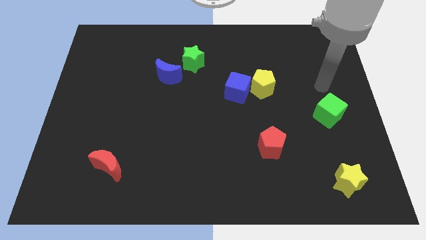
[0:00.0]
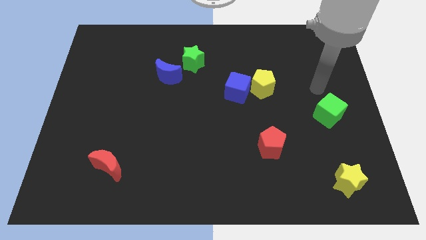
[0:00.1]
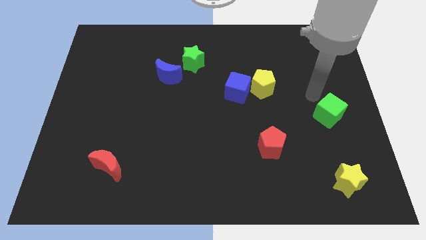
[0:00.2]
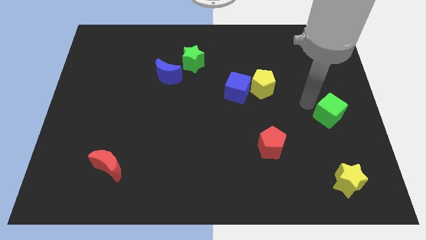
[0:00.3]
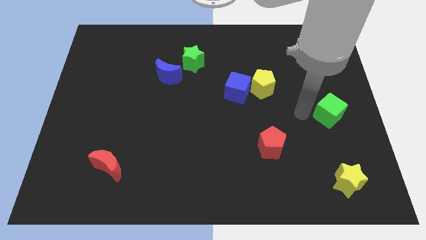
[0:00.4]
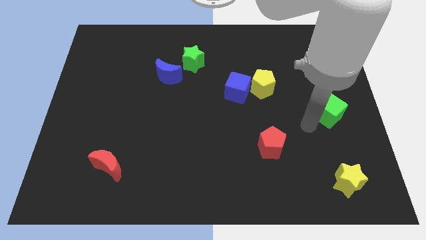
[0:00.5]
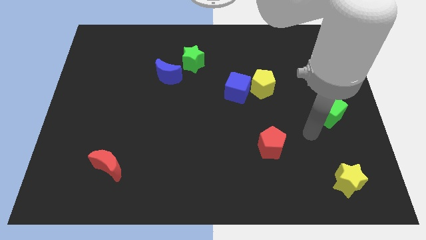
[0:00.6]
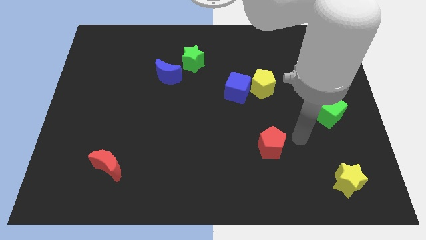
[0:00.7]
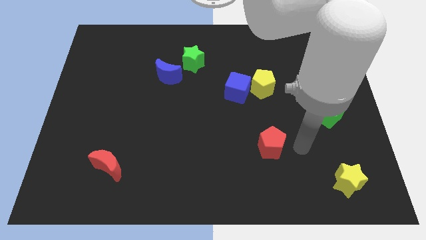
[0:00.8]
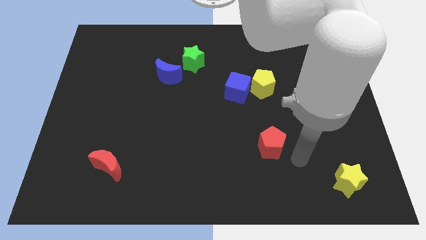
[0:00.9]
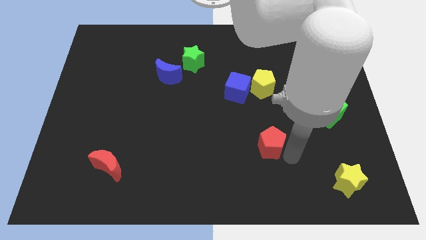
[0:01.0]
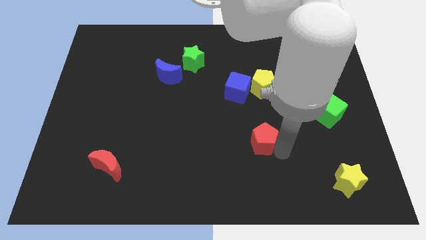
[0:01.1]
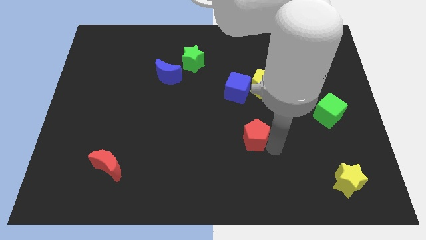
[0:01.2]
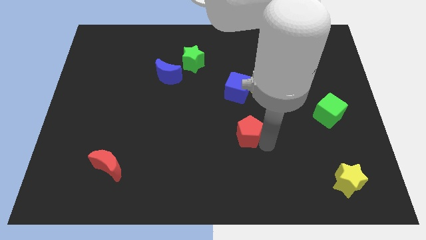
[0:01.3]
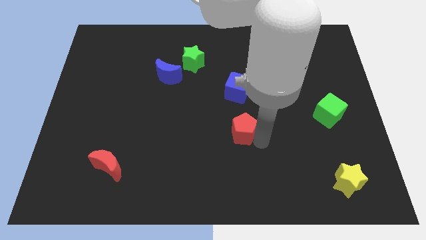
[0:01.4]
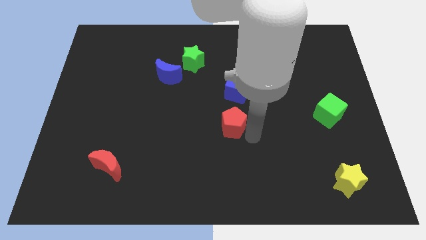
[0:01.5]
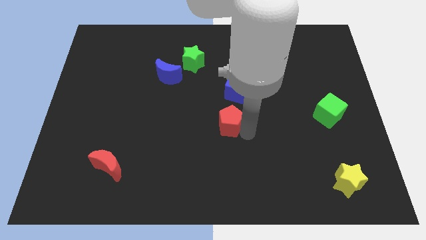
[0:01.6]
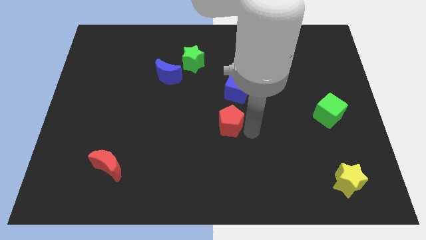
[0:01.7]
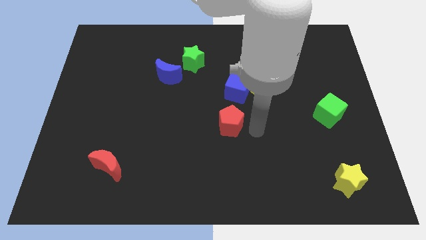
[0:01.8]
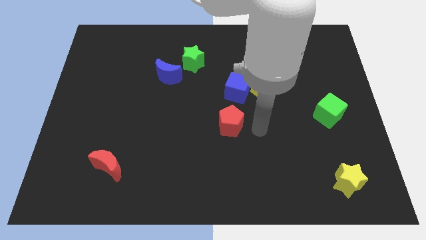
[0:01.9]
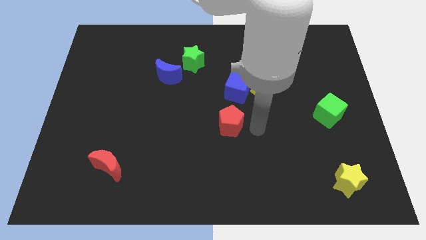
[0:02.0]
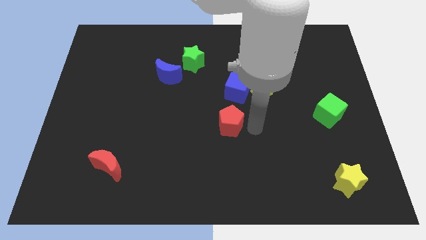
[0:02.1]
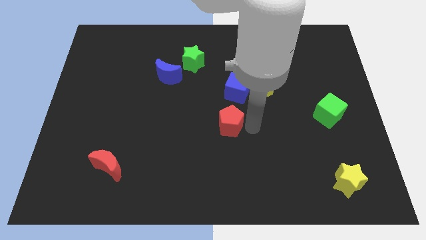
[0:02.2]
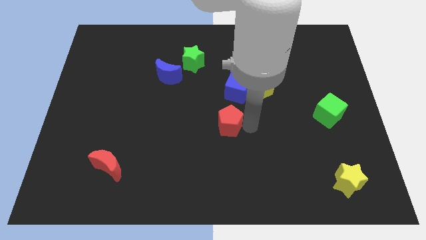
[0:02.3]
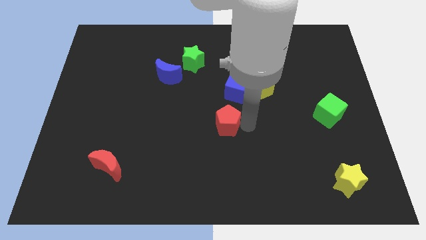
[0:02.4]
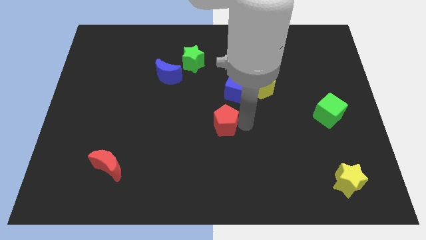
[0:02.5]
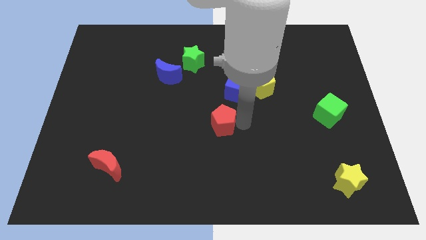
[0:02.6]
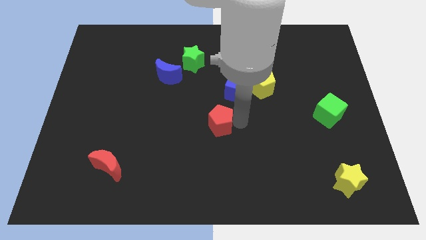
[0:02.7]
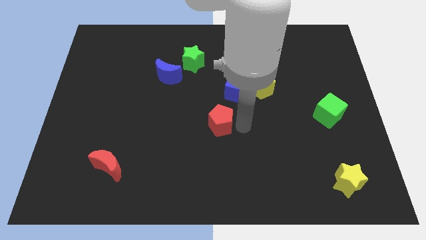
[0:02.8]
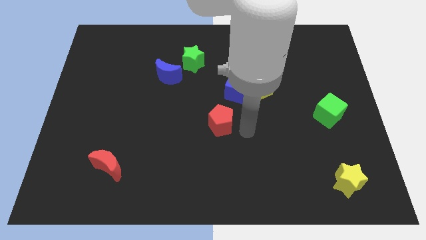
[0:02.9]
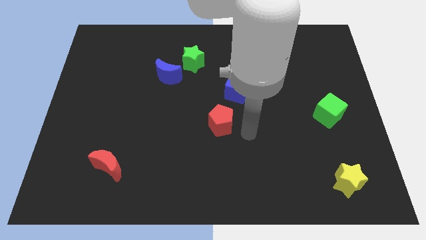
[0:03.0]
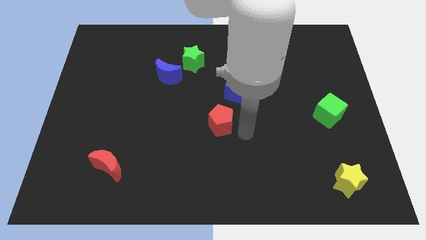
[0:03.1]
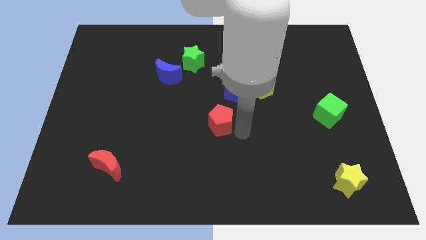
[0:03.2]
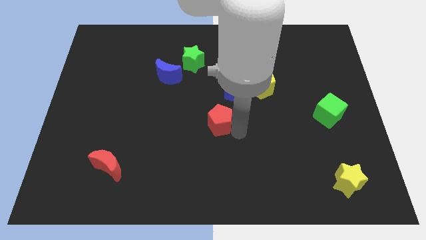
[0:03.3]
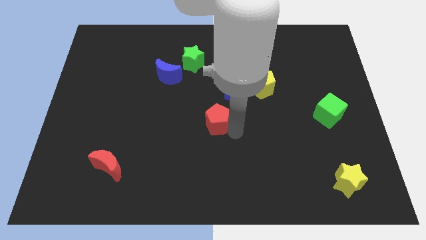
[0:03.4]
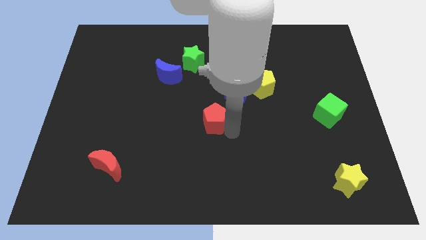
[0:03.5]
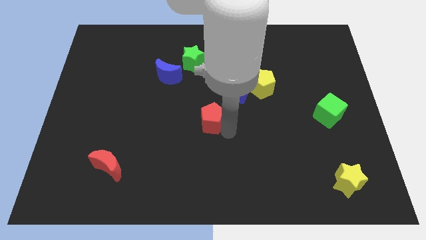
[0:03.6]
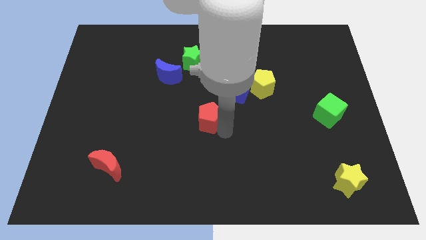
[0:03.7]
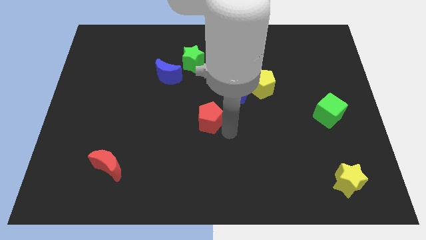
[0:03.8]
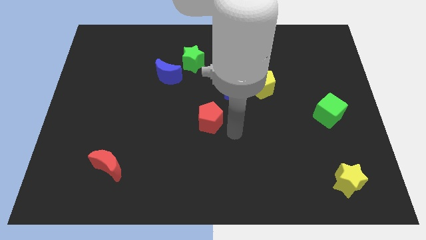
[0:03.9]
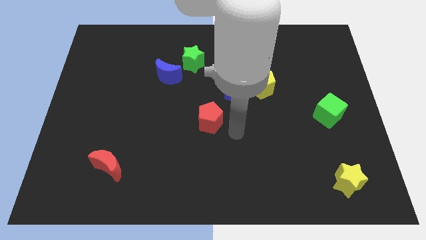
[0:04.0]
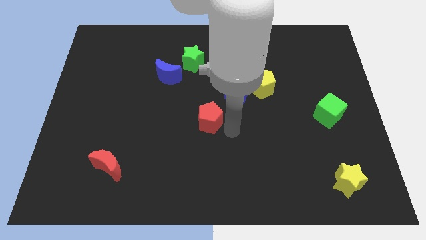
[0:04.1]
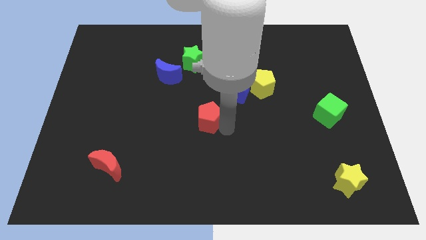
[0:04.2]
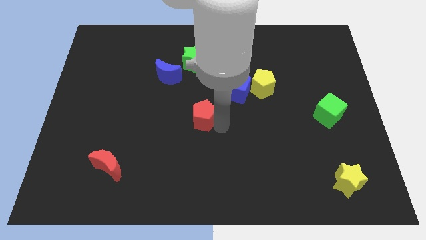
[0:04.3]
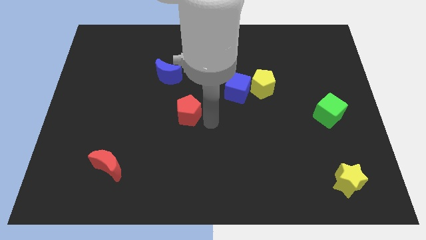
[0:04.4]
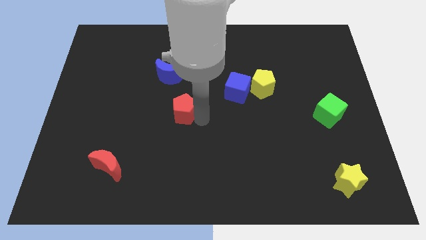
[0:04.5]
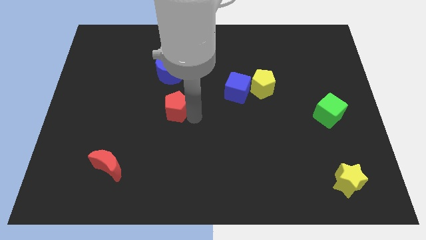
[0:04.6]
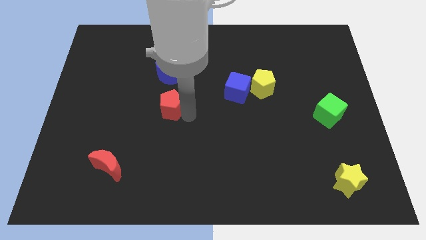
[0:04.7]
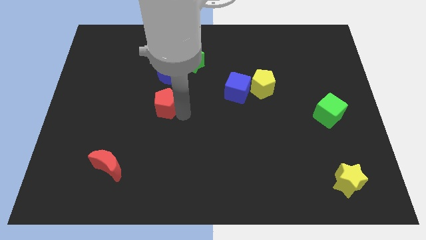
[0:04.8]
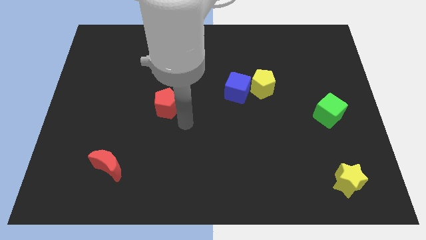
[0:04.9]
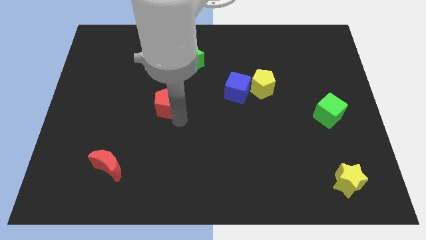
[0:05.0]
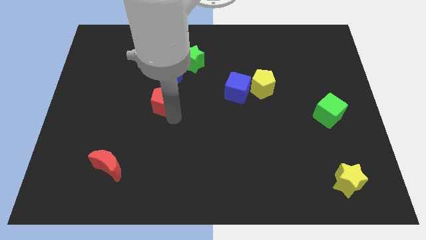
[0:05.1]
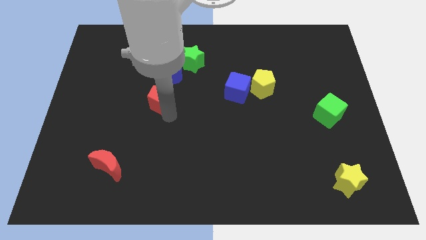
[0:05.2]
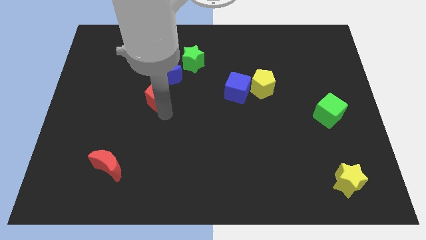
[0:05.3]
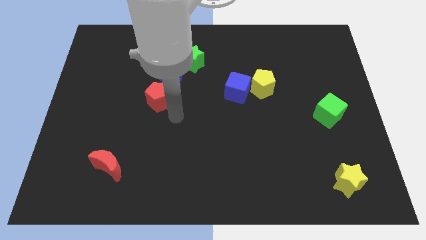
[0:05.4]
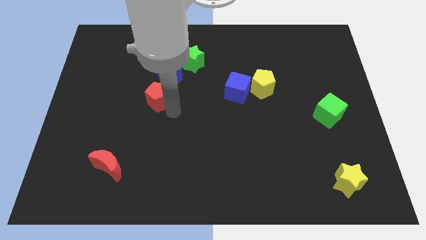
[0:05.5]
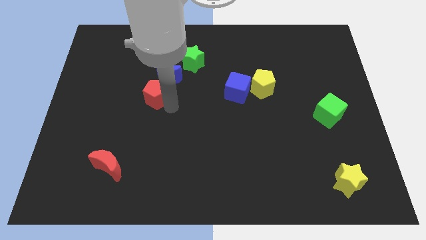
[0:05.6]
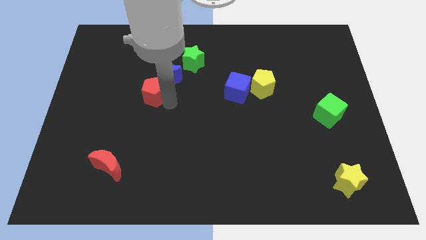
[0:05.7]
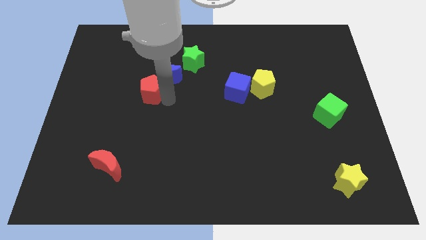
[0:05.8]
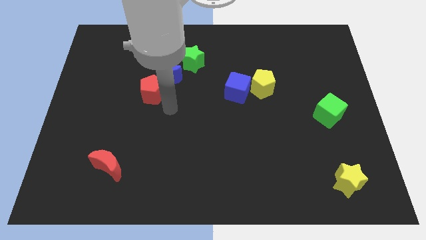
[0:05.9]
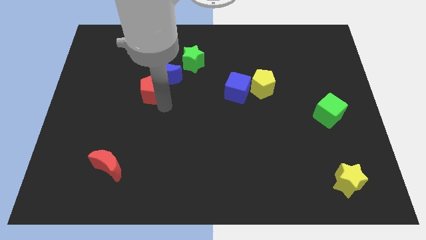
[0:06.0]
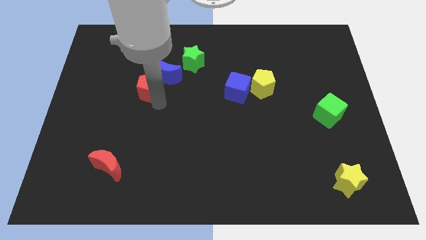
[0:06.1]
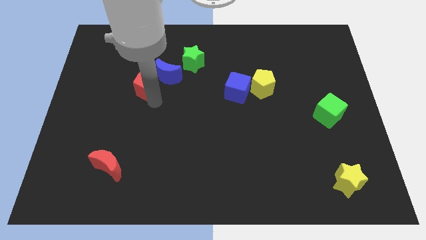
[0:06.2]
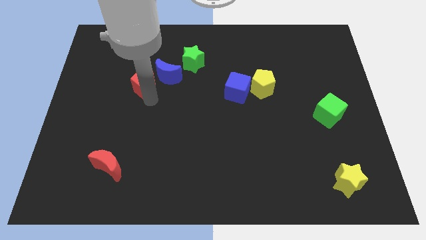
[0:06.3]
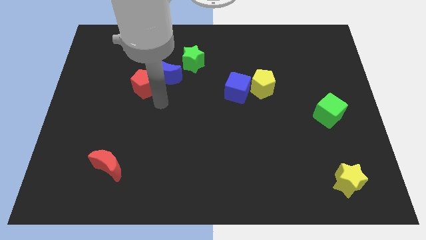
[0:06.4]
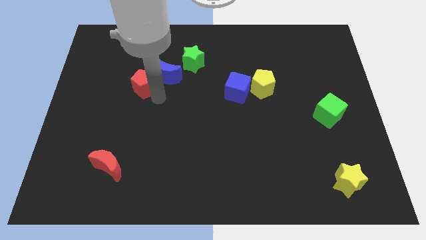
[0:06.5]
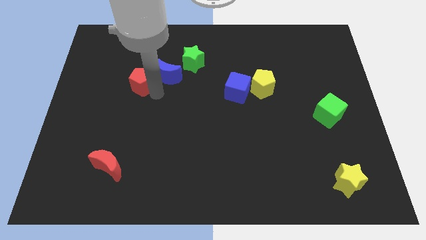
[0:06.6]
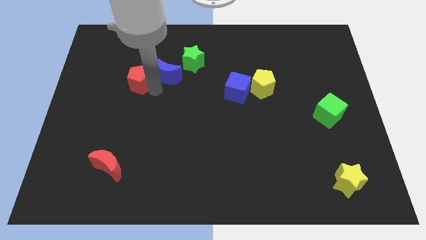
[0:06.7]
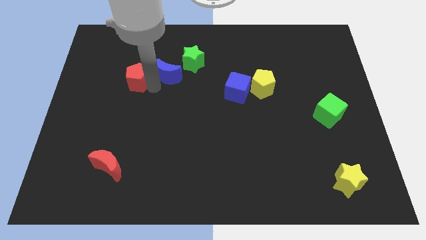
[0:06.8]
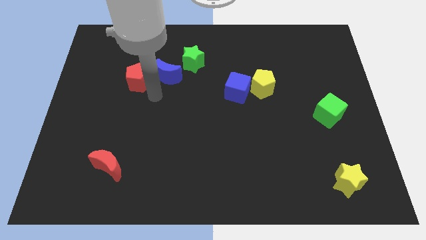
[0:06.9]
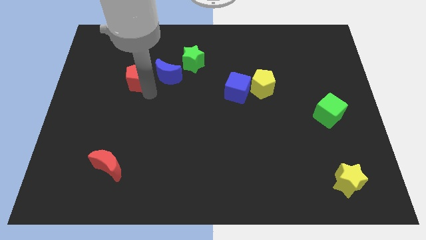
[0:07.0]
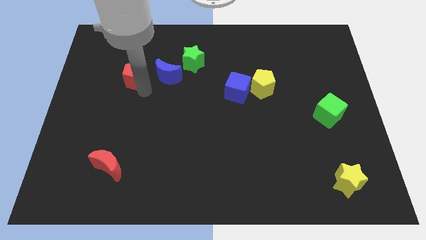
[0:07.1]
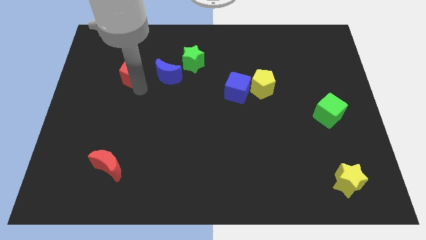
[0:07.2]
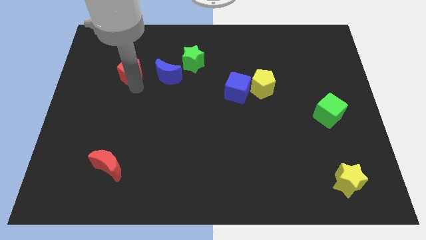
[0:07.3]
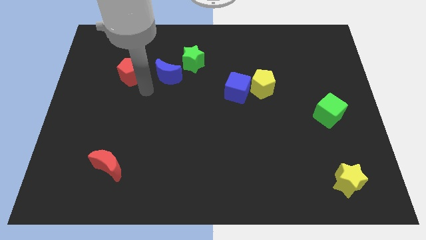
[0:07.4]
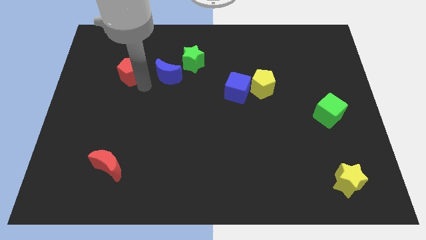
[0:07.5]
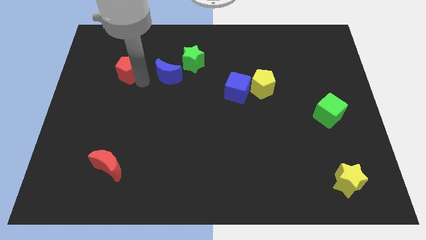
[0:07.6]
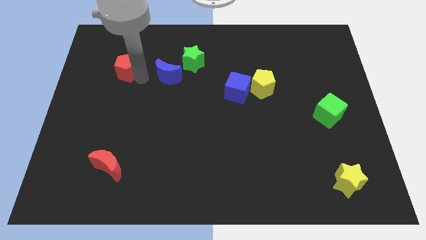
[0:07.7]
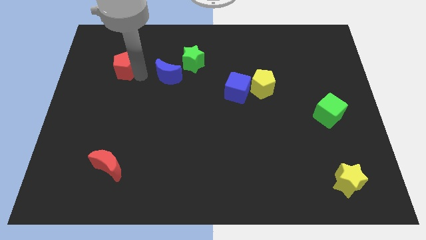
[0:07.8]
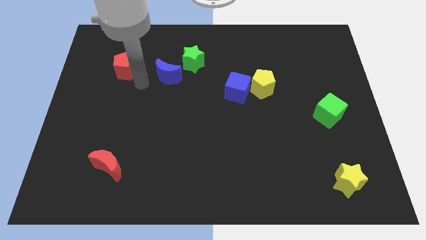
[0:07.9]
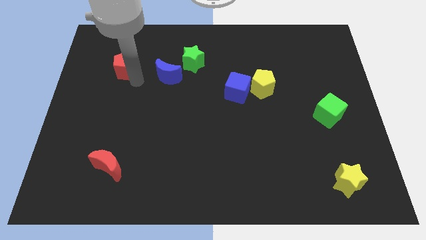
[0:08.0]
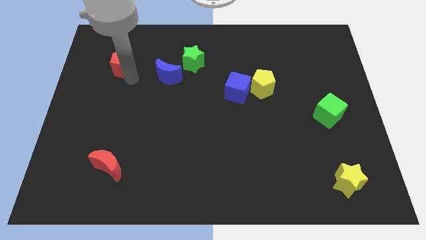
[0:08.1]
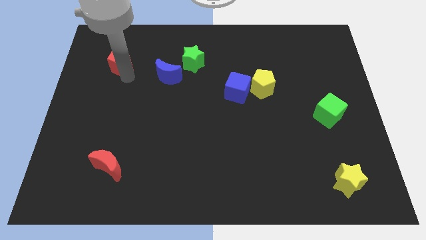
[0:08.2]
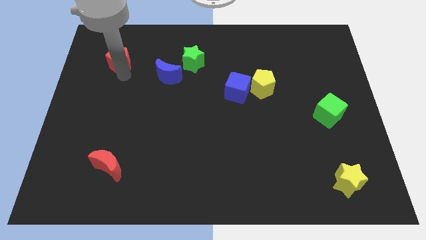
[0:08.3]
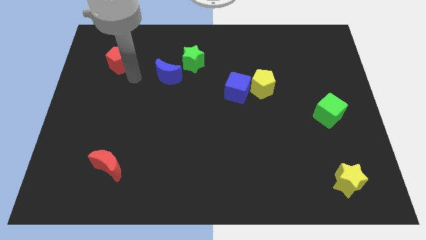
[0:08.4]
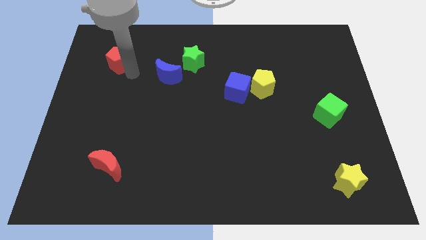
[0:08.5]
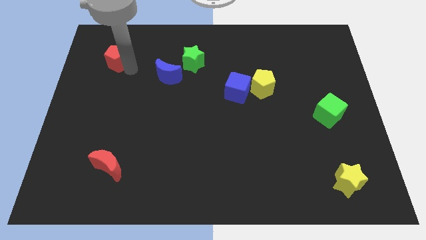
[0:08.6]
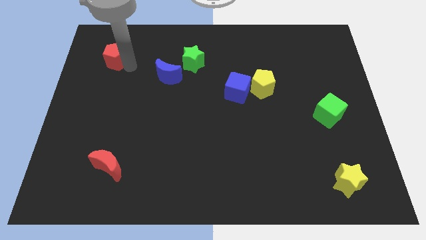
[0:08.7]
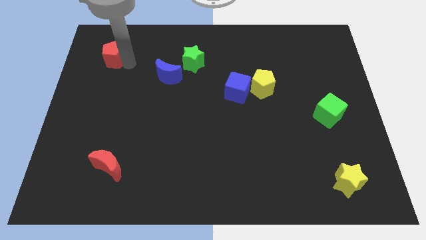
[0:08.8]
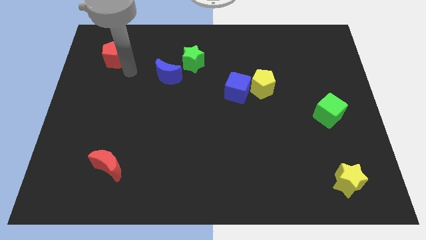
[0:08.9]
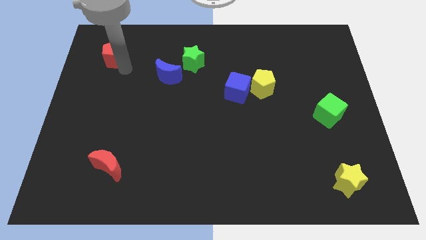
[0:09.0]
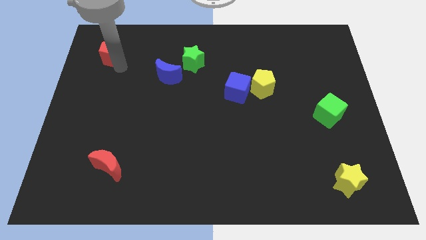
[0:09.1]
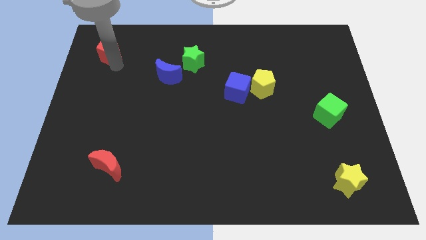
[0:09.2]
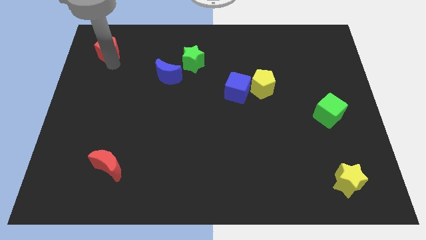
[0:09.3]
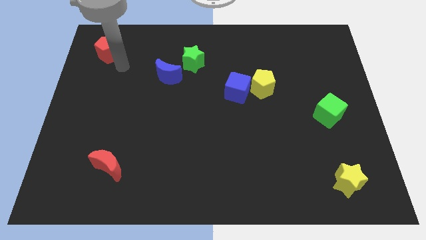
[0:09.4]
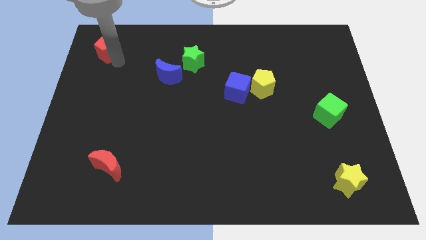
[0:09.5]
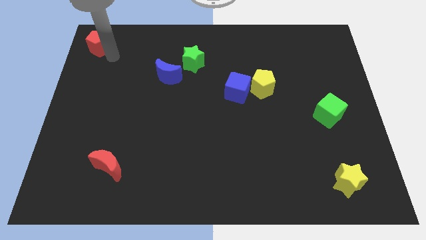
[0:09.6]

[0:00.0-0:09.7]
slide the red pentagon to the top left of the board
